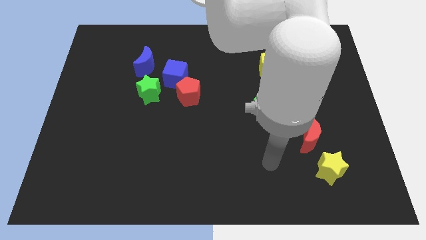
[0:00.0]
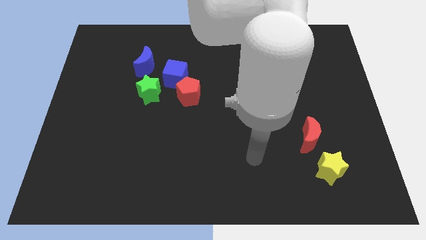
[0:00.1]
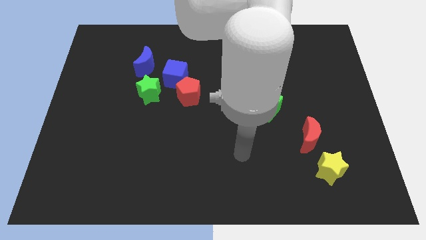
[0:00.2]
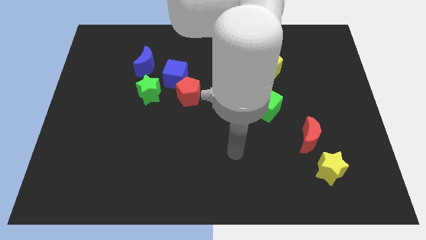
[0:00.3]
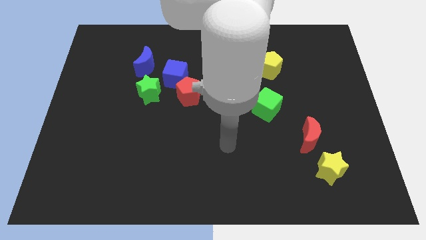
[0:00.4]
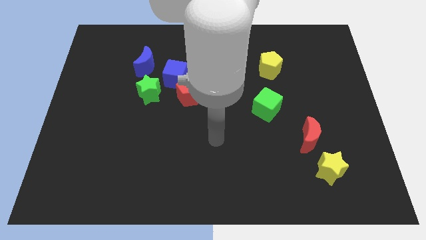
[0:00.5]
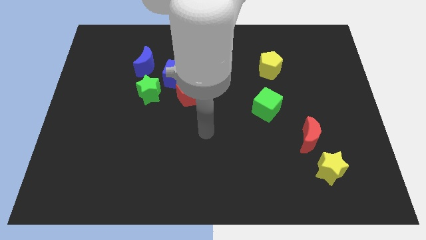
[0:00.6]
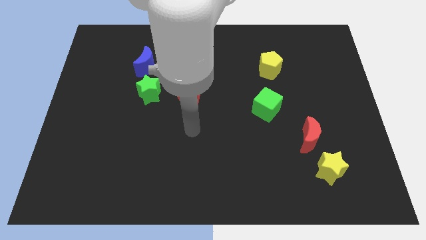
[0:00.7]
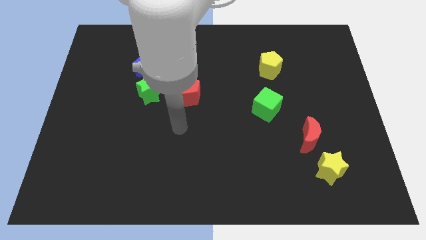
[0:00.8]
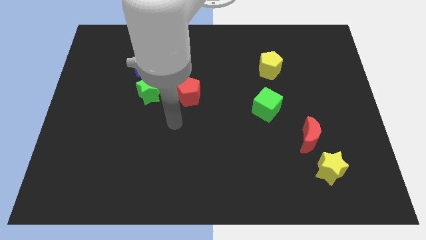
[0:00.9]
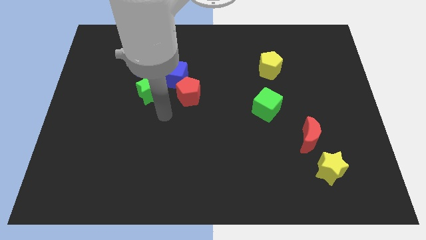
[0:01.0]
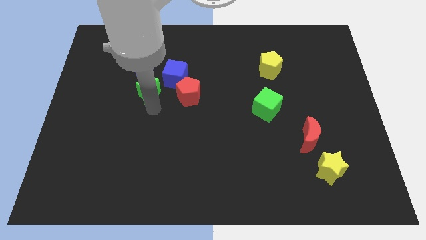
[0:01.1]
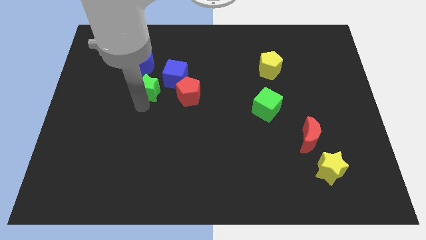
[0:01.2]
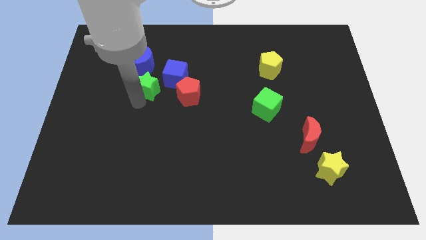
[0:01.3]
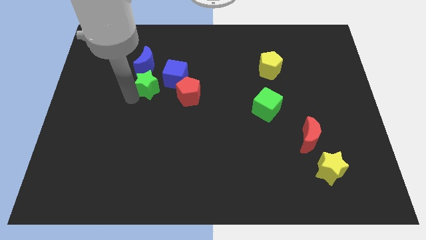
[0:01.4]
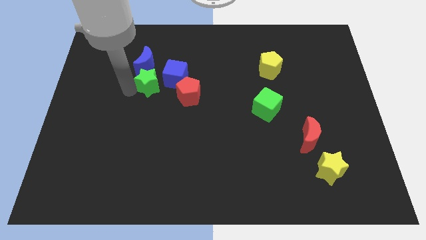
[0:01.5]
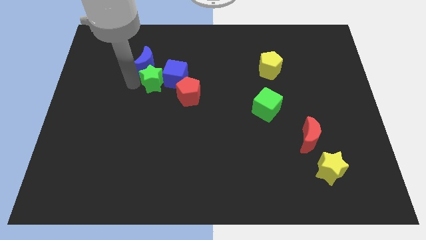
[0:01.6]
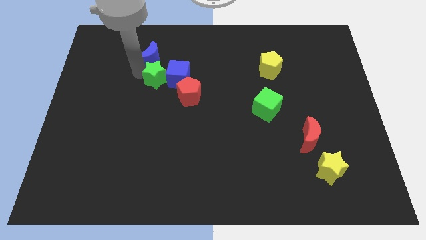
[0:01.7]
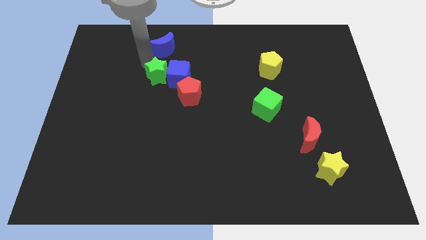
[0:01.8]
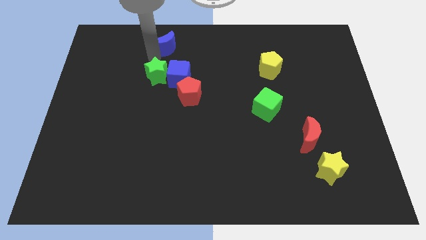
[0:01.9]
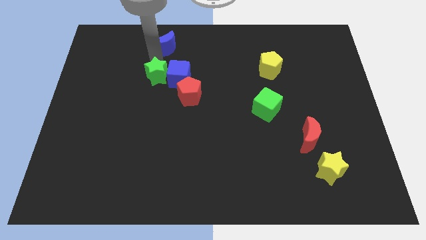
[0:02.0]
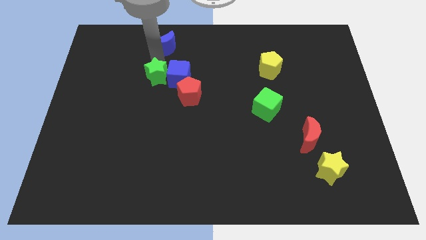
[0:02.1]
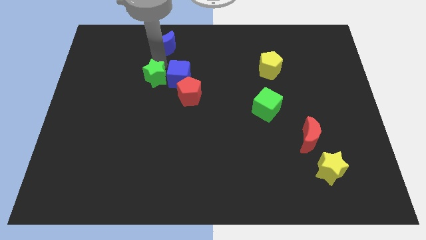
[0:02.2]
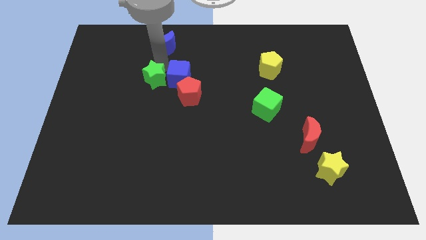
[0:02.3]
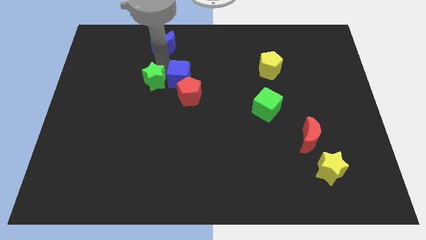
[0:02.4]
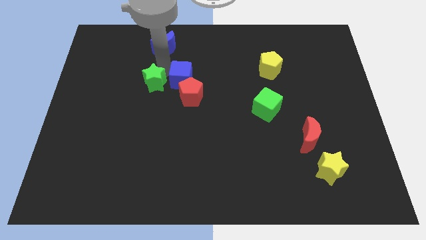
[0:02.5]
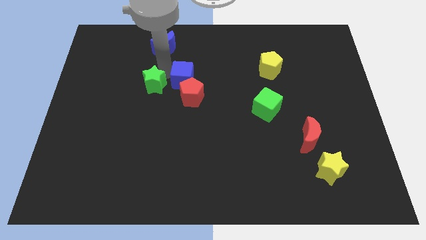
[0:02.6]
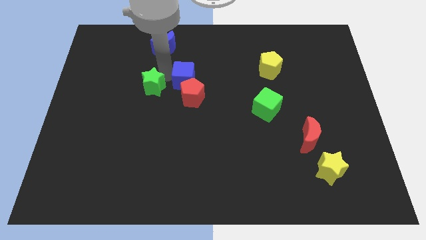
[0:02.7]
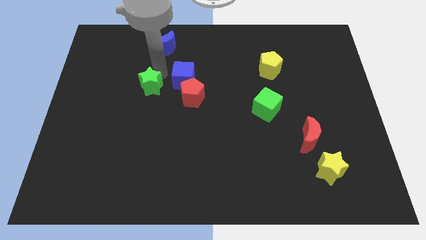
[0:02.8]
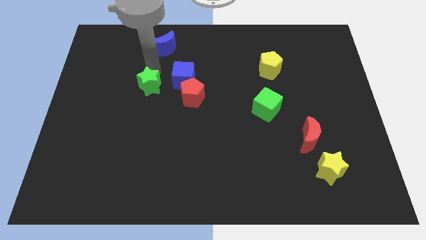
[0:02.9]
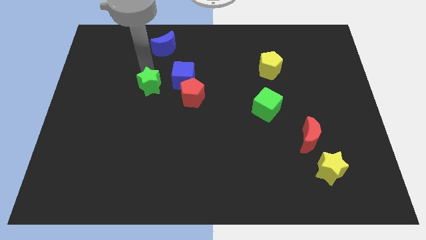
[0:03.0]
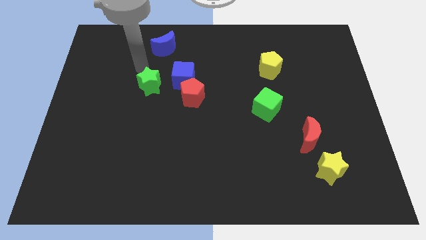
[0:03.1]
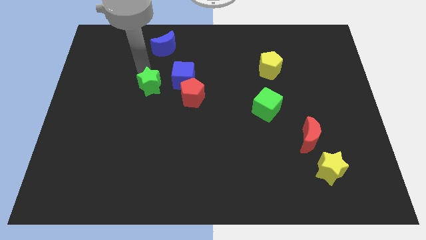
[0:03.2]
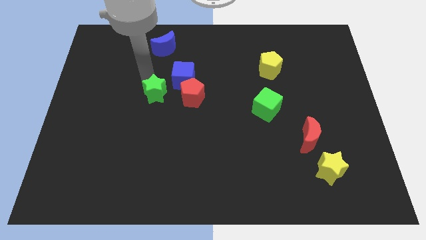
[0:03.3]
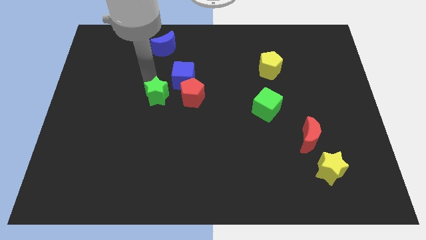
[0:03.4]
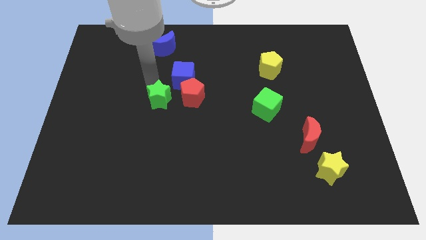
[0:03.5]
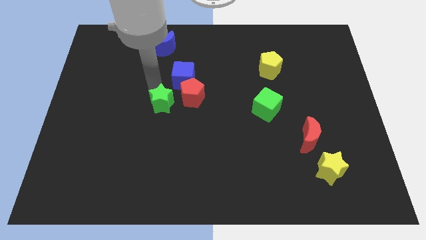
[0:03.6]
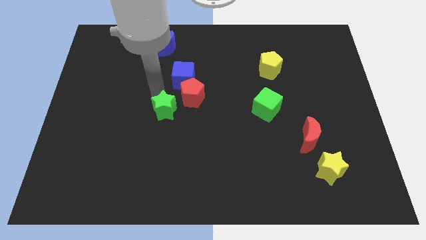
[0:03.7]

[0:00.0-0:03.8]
slightly slide the green star downwards and then right

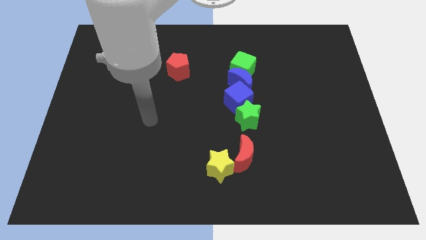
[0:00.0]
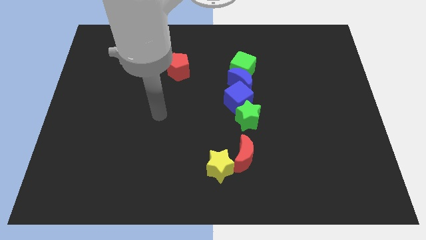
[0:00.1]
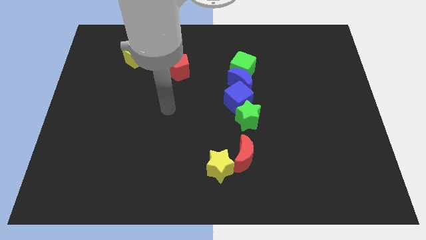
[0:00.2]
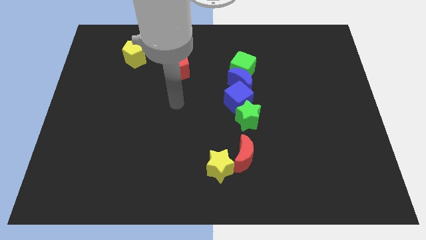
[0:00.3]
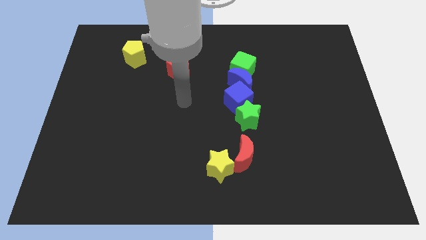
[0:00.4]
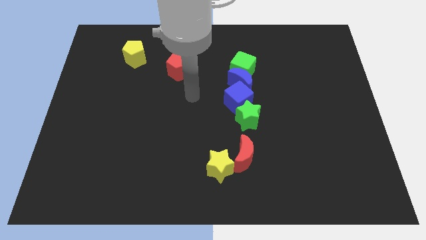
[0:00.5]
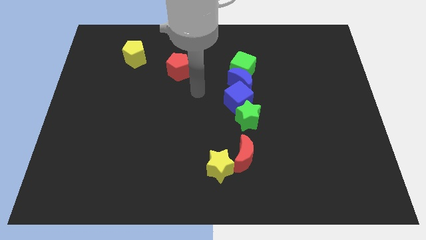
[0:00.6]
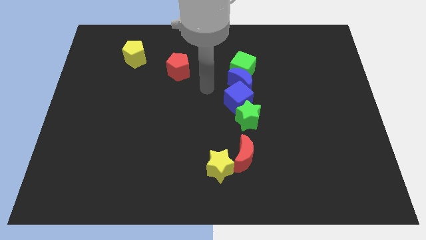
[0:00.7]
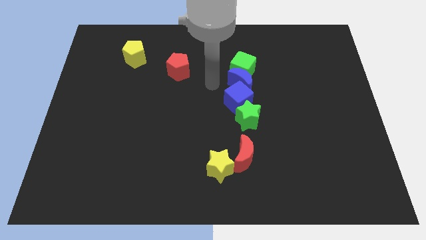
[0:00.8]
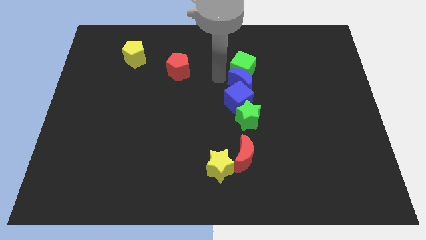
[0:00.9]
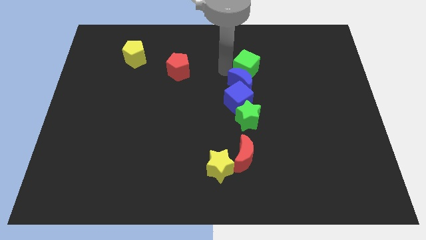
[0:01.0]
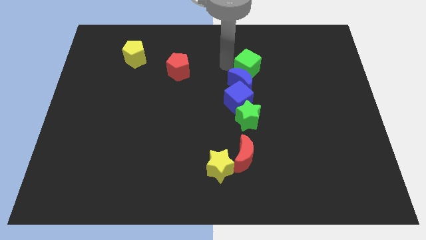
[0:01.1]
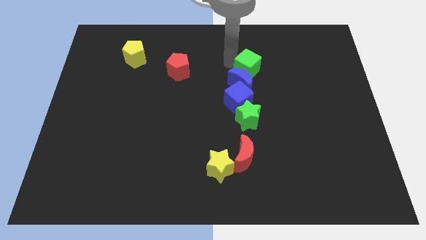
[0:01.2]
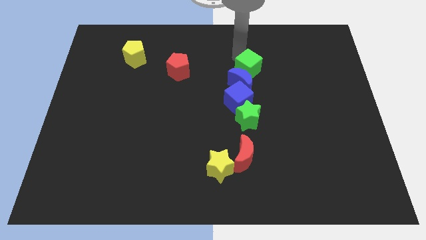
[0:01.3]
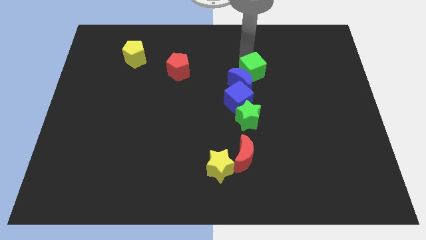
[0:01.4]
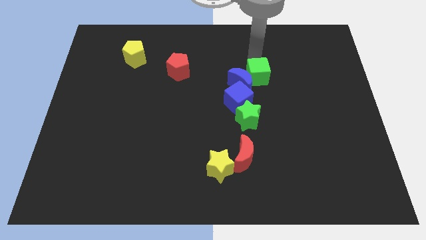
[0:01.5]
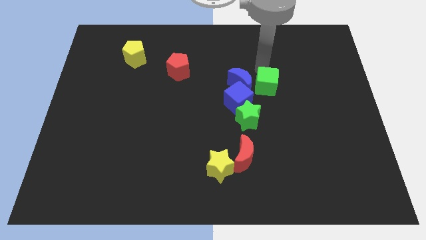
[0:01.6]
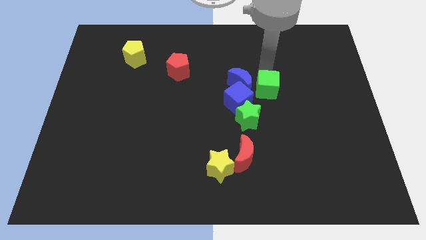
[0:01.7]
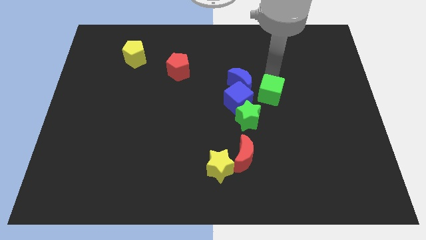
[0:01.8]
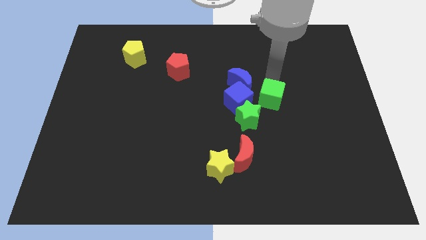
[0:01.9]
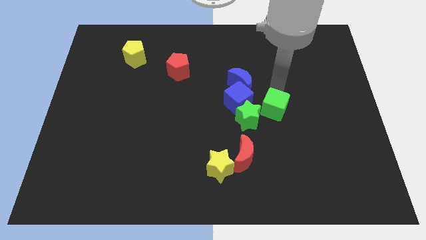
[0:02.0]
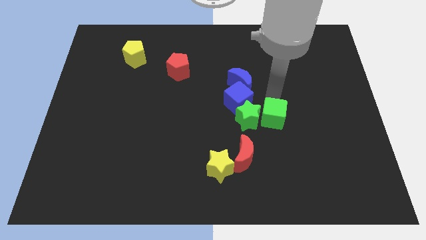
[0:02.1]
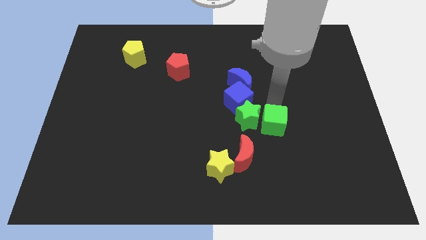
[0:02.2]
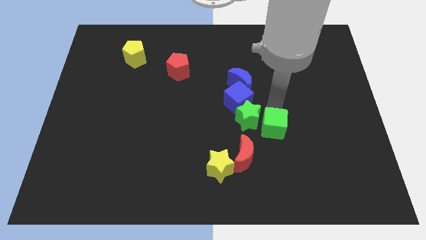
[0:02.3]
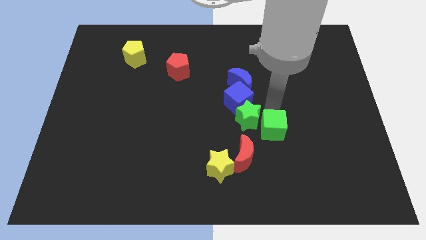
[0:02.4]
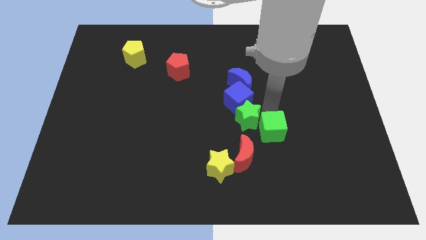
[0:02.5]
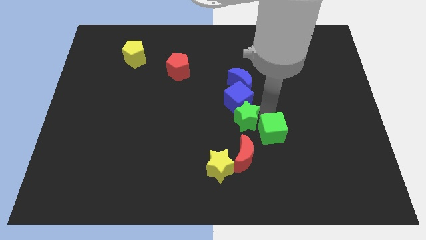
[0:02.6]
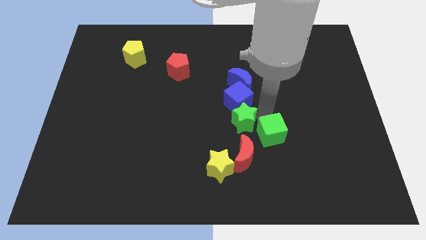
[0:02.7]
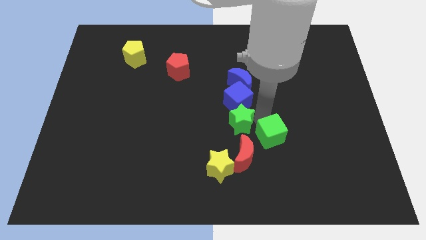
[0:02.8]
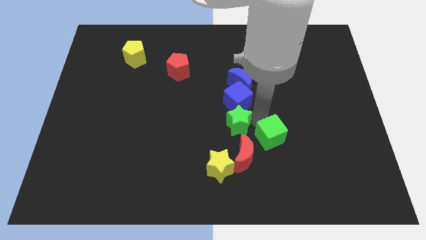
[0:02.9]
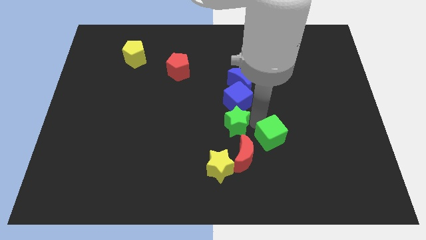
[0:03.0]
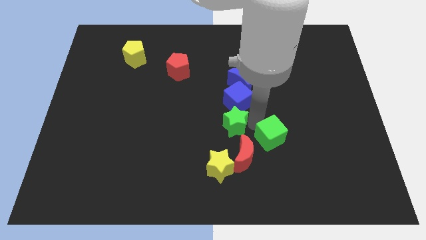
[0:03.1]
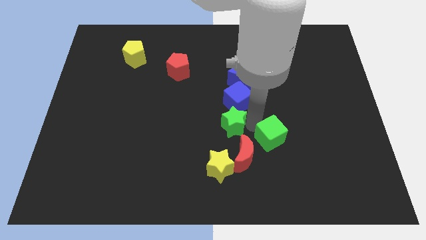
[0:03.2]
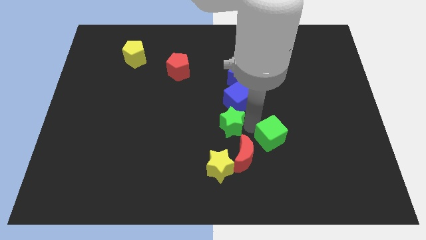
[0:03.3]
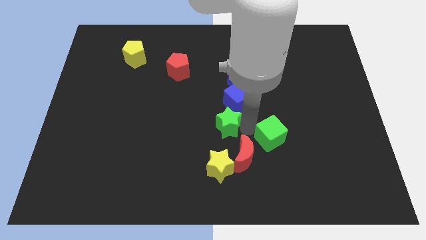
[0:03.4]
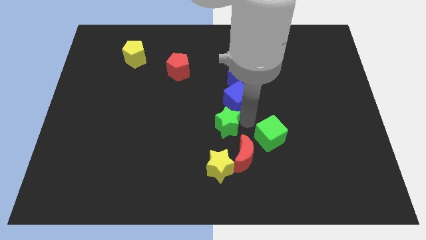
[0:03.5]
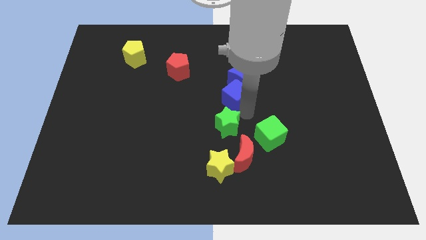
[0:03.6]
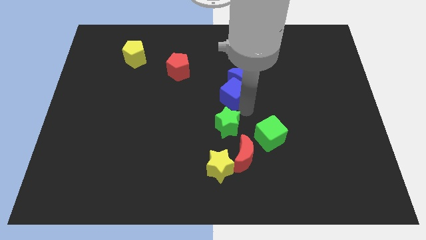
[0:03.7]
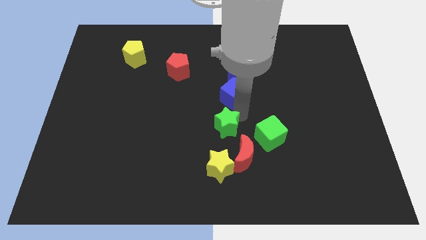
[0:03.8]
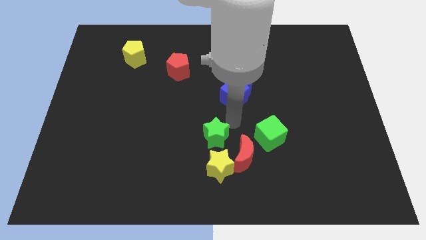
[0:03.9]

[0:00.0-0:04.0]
move the green star down and to the left diagonally slightly

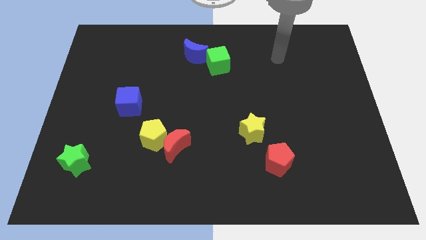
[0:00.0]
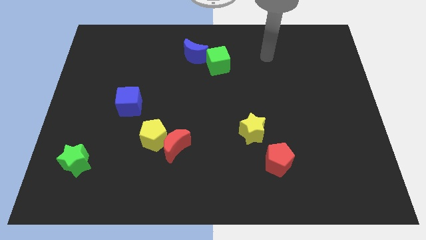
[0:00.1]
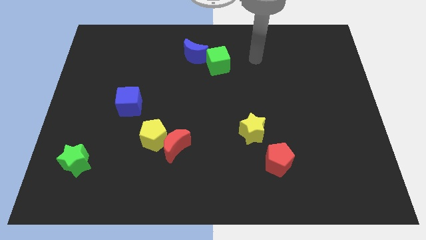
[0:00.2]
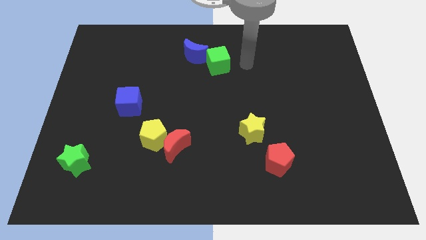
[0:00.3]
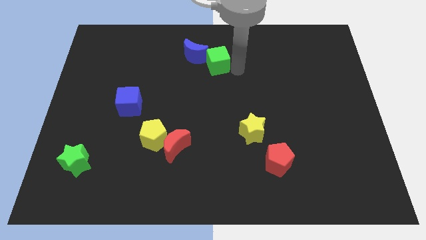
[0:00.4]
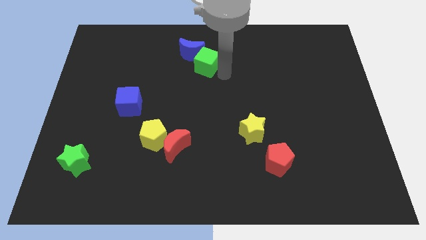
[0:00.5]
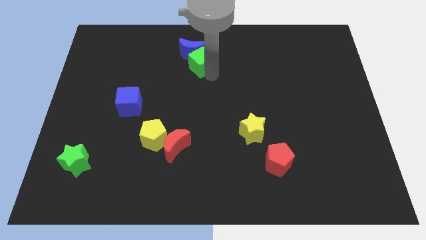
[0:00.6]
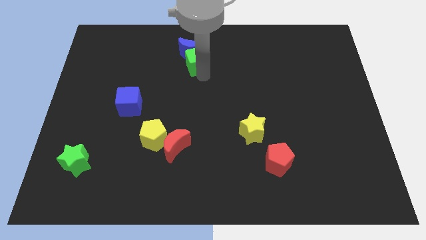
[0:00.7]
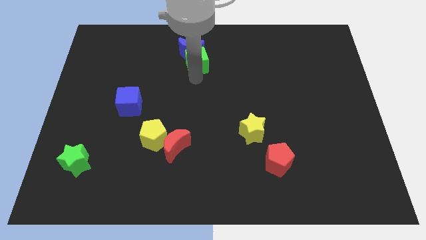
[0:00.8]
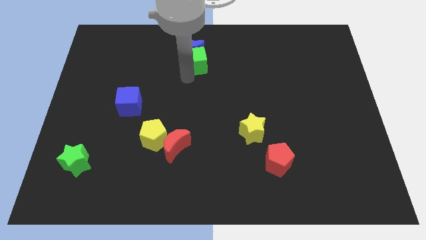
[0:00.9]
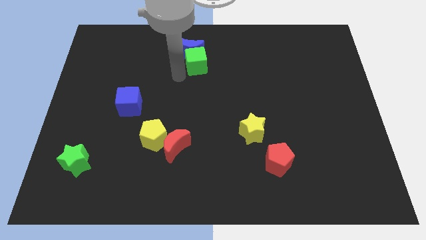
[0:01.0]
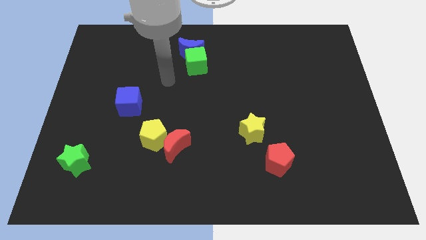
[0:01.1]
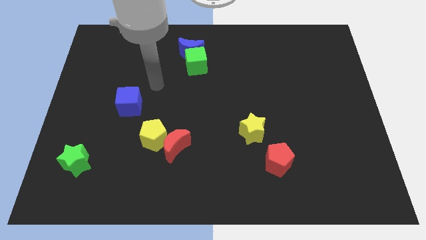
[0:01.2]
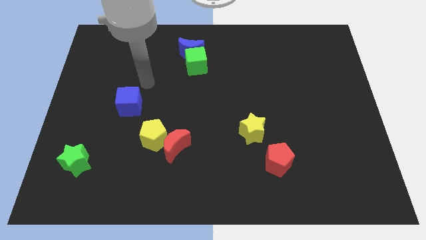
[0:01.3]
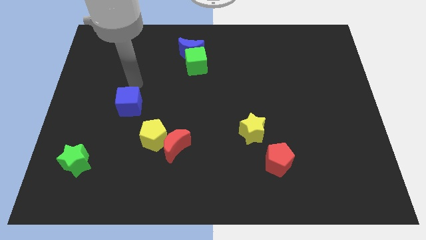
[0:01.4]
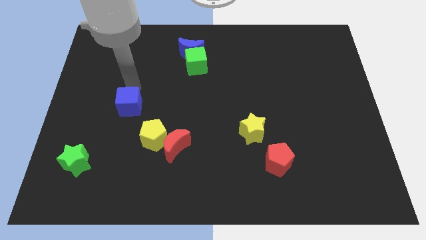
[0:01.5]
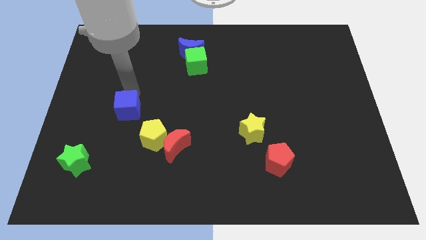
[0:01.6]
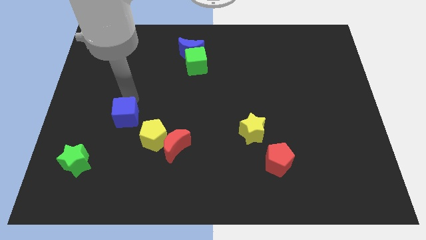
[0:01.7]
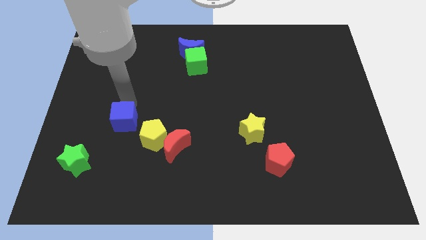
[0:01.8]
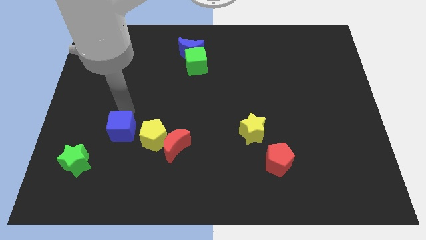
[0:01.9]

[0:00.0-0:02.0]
move the blue cube a bit down
